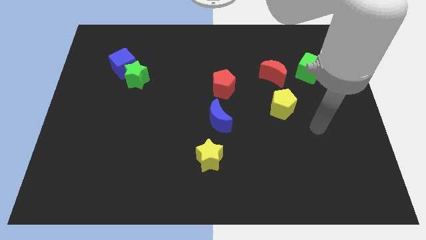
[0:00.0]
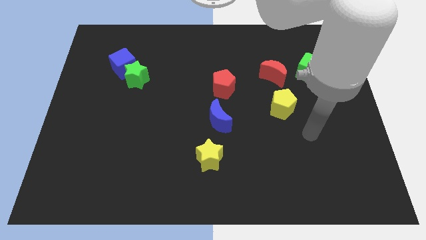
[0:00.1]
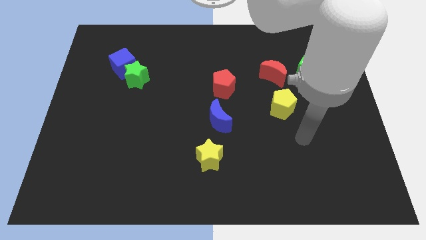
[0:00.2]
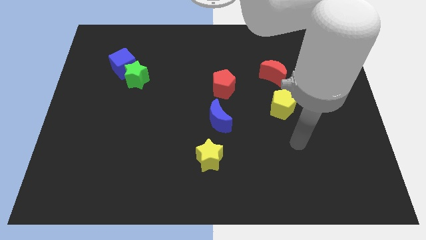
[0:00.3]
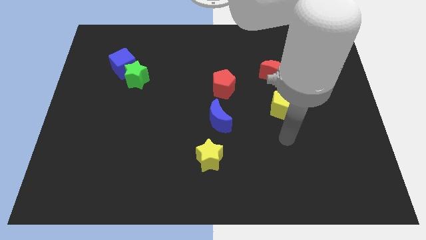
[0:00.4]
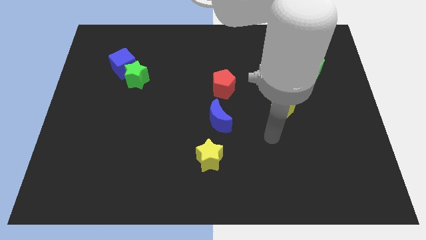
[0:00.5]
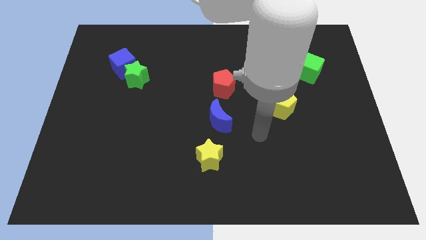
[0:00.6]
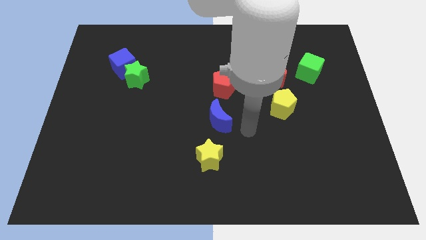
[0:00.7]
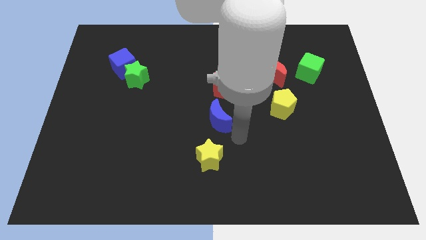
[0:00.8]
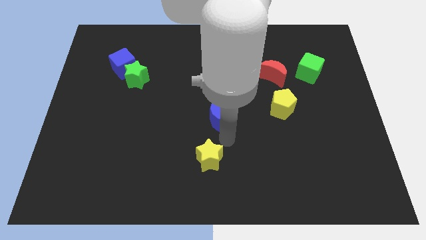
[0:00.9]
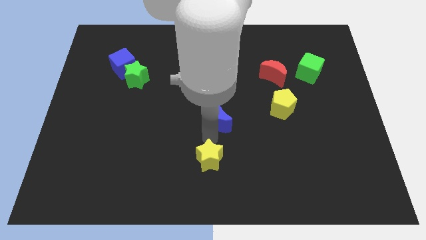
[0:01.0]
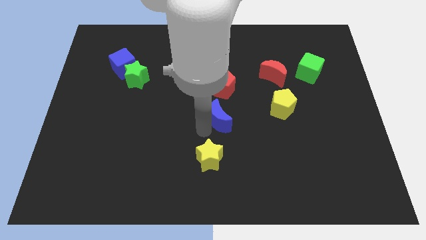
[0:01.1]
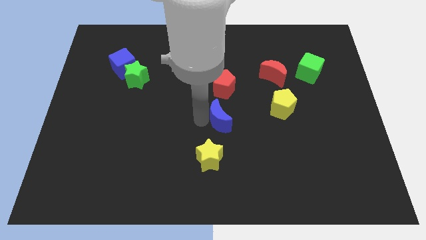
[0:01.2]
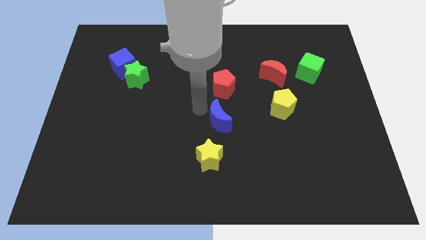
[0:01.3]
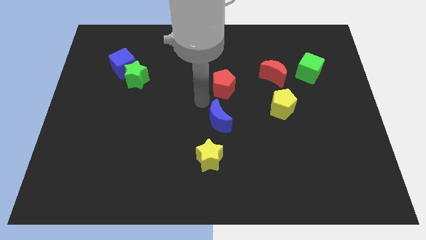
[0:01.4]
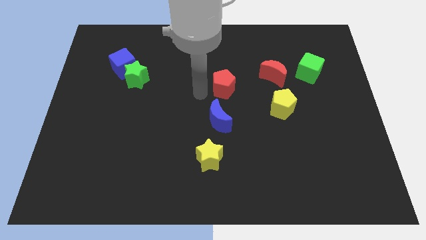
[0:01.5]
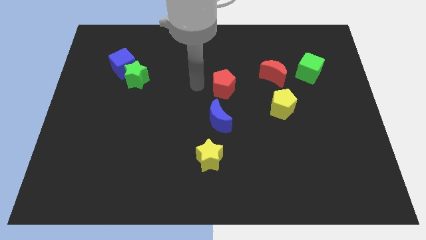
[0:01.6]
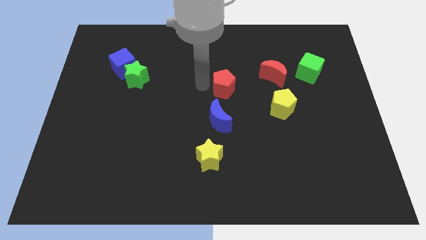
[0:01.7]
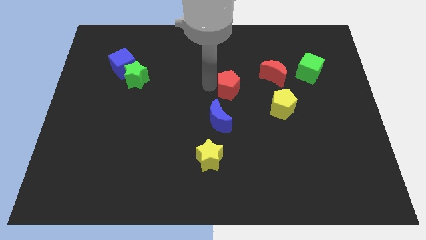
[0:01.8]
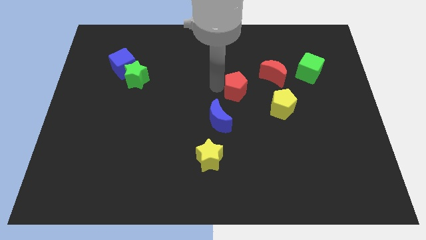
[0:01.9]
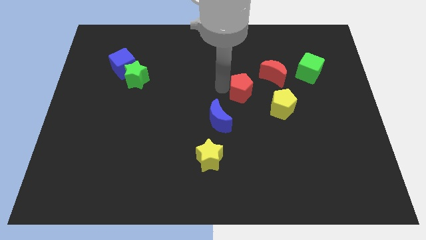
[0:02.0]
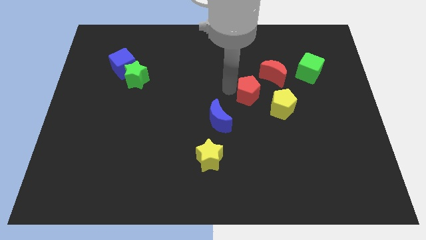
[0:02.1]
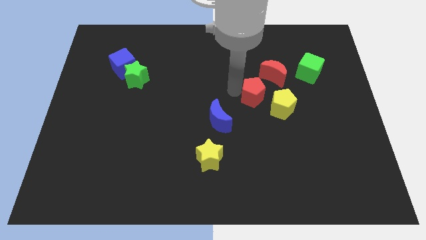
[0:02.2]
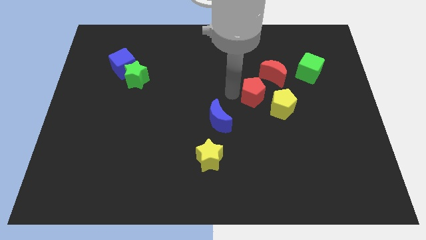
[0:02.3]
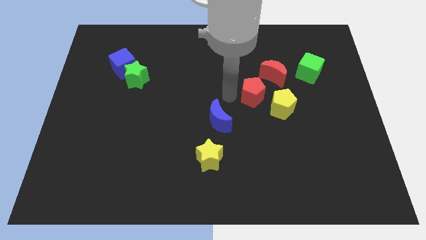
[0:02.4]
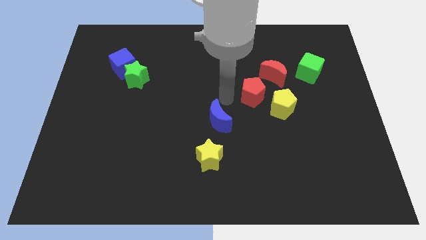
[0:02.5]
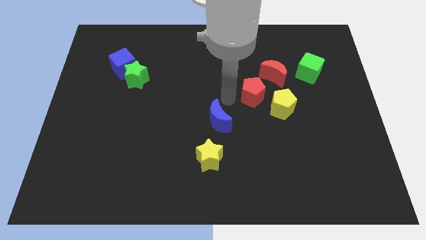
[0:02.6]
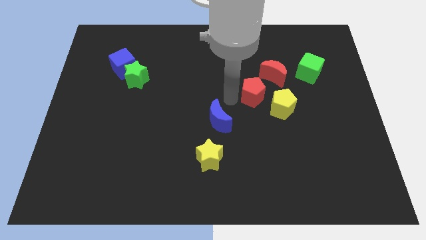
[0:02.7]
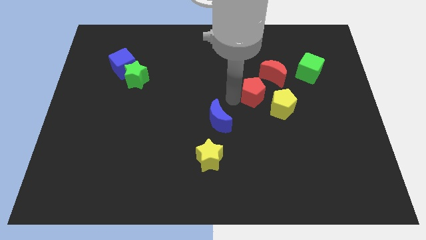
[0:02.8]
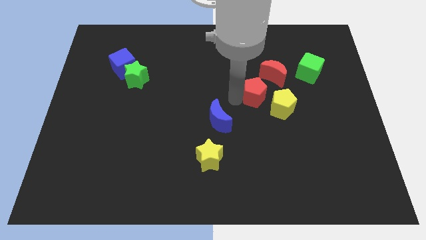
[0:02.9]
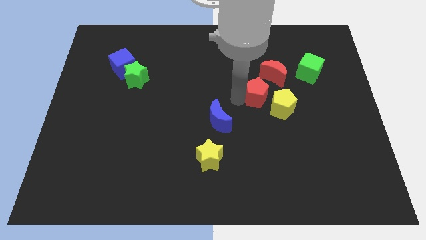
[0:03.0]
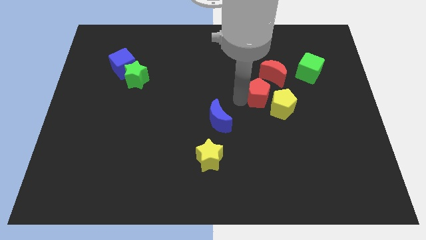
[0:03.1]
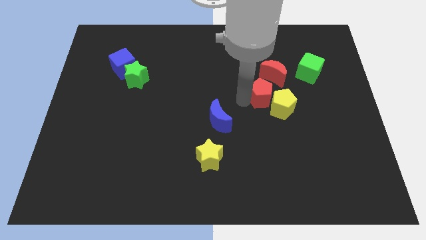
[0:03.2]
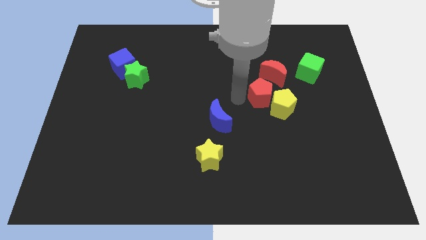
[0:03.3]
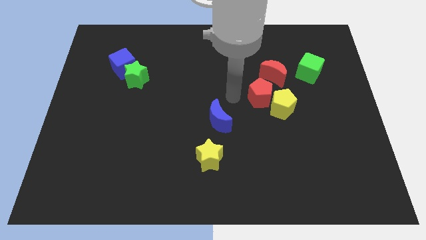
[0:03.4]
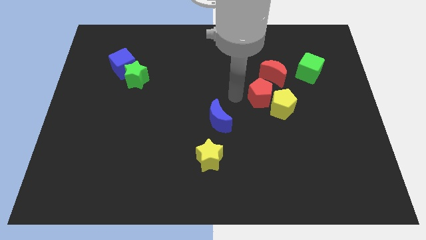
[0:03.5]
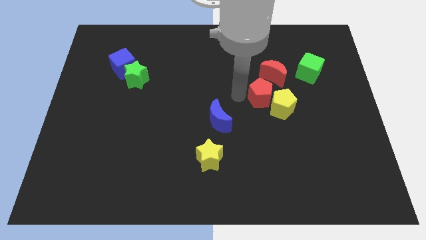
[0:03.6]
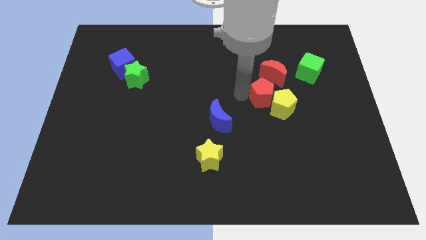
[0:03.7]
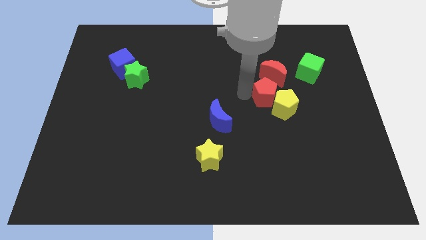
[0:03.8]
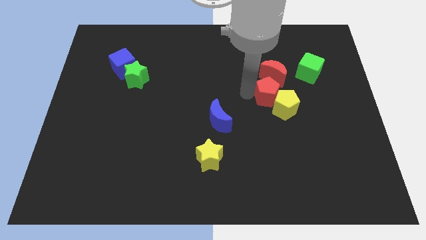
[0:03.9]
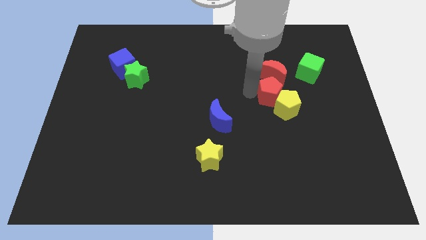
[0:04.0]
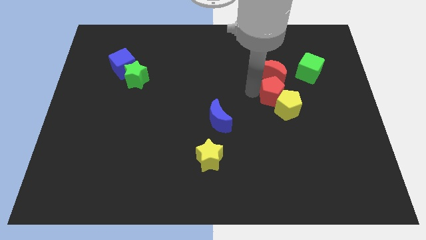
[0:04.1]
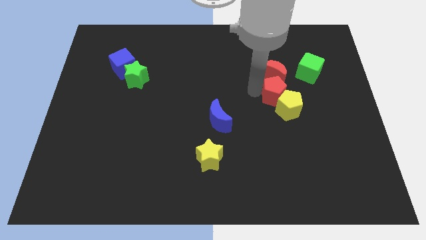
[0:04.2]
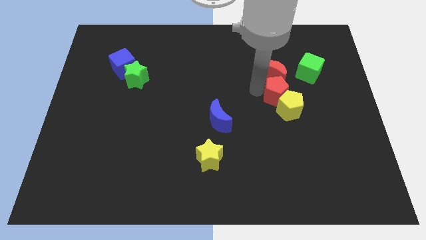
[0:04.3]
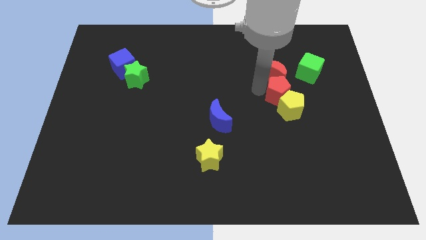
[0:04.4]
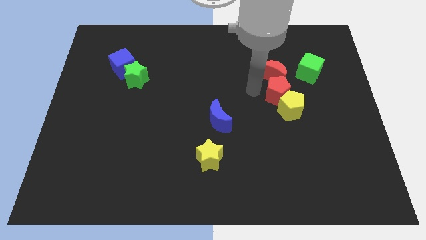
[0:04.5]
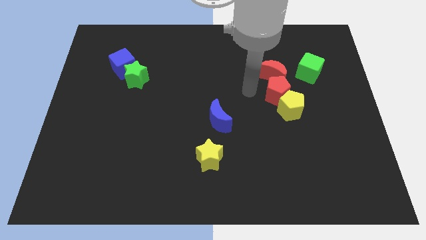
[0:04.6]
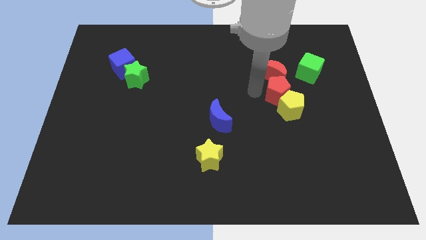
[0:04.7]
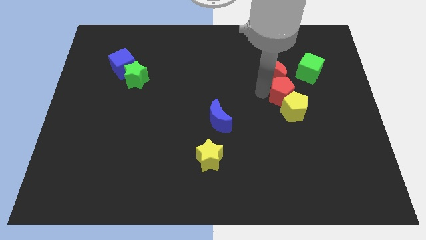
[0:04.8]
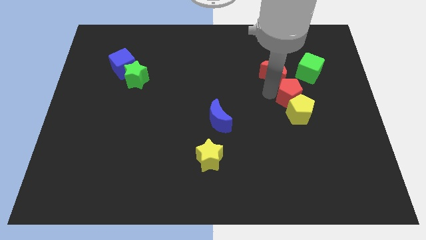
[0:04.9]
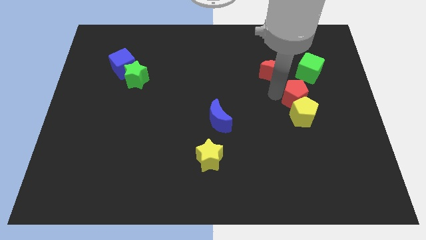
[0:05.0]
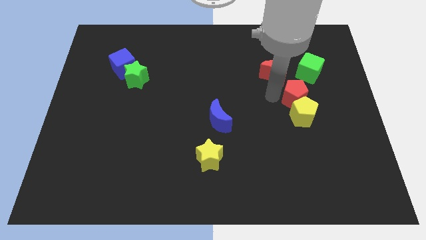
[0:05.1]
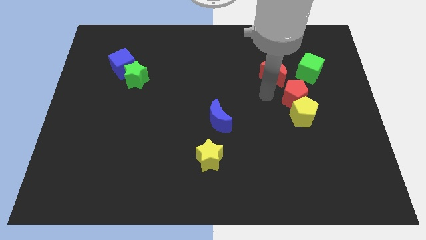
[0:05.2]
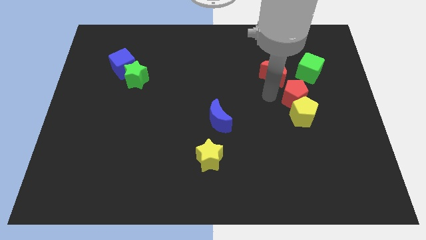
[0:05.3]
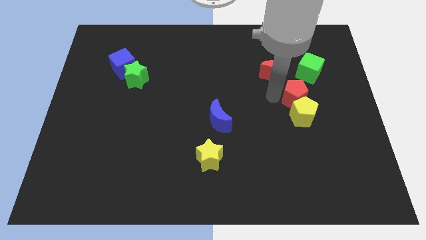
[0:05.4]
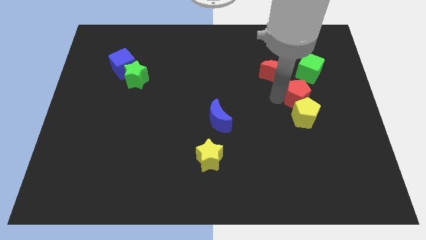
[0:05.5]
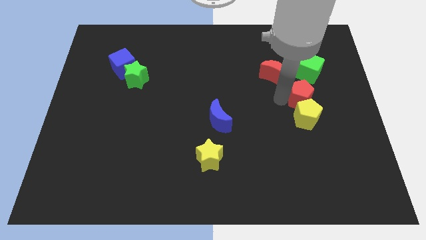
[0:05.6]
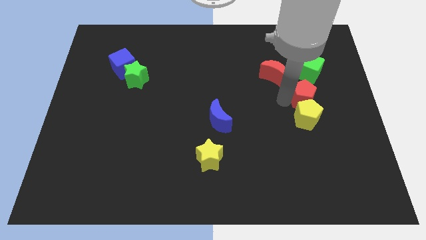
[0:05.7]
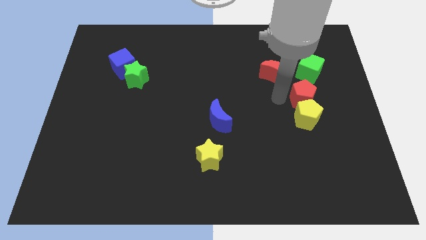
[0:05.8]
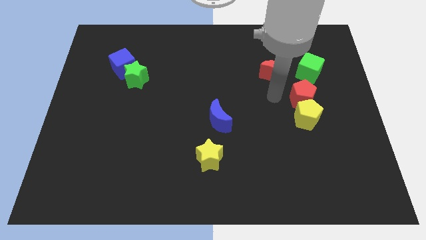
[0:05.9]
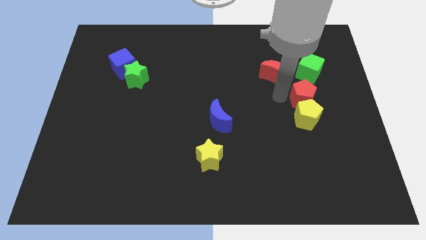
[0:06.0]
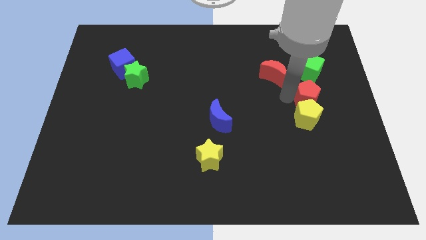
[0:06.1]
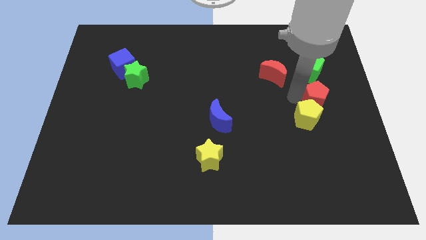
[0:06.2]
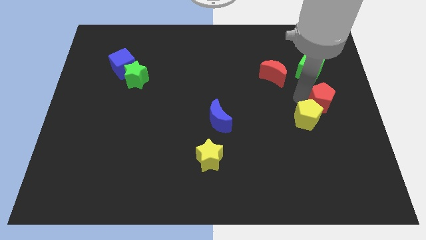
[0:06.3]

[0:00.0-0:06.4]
slide the red pentagon to the right side of the board
